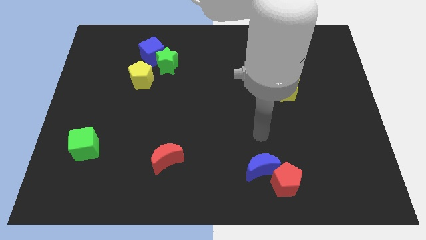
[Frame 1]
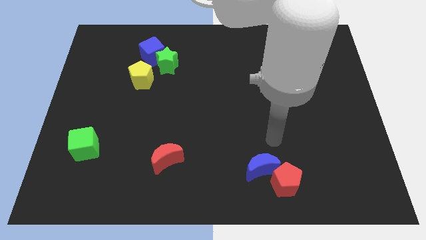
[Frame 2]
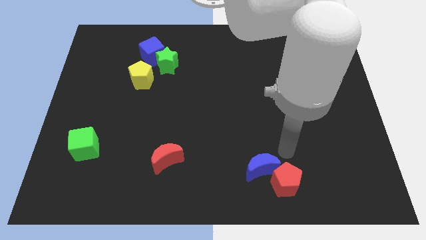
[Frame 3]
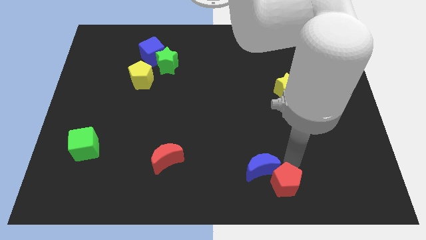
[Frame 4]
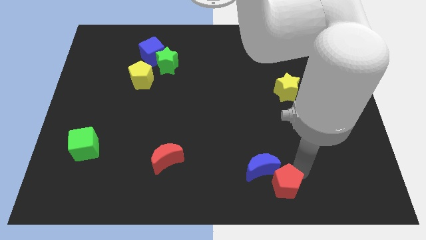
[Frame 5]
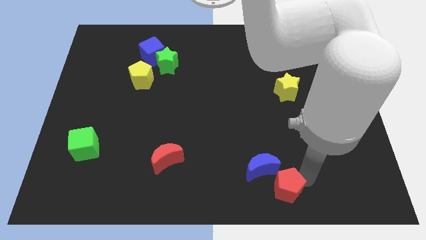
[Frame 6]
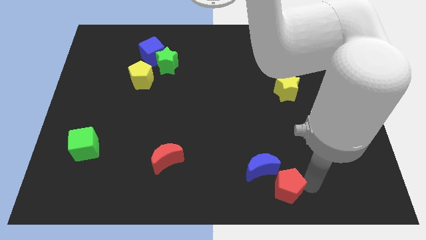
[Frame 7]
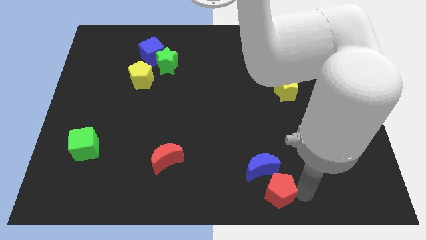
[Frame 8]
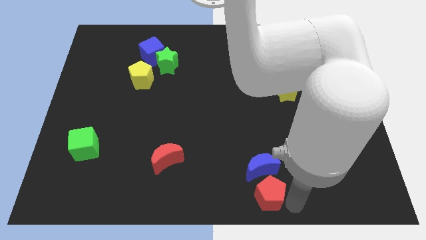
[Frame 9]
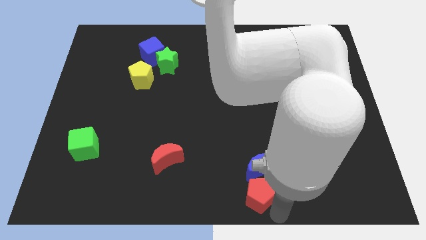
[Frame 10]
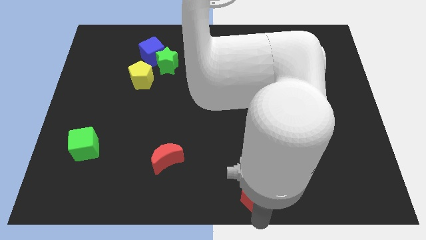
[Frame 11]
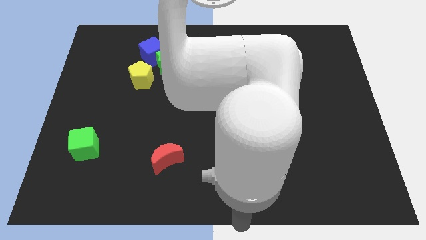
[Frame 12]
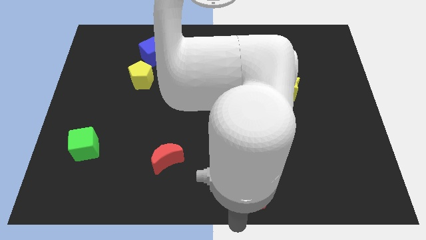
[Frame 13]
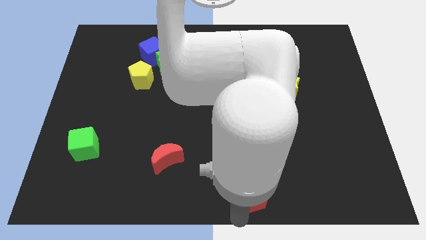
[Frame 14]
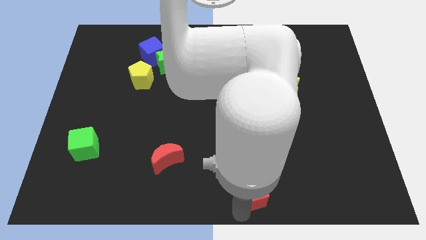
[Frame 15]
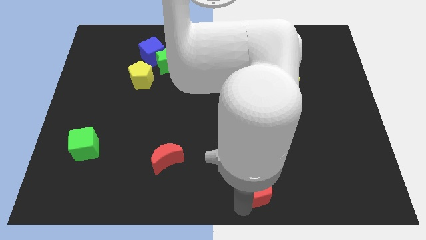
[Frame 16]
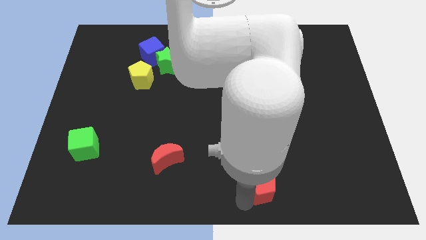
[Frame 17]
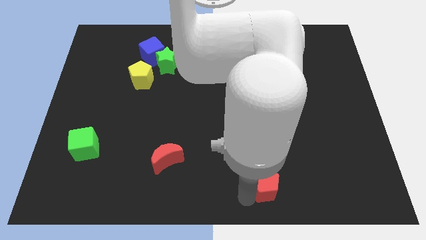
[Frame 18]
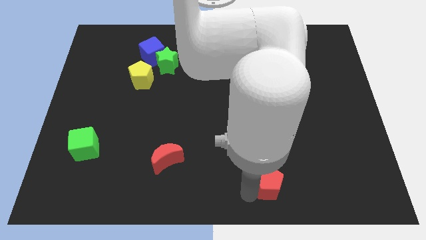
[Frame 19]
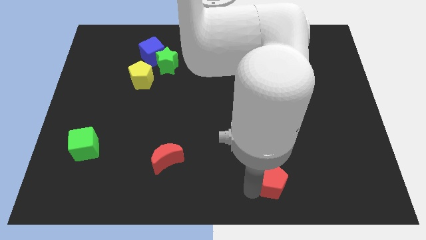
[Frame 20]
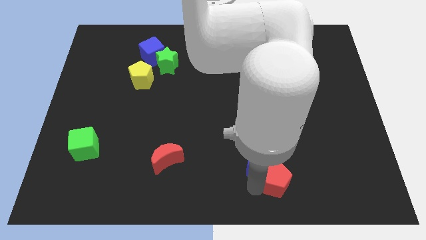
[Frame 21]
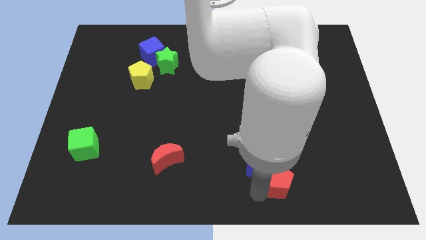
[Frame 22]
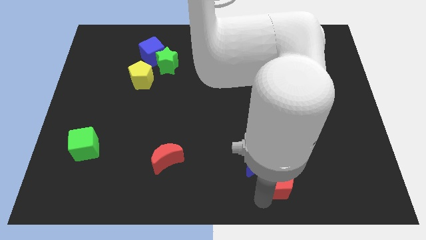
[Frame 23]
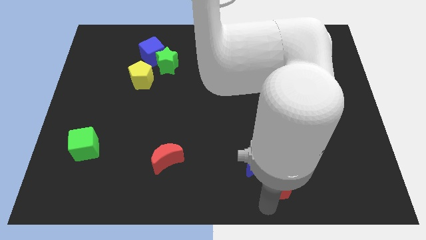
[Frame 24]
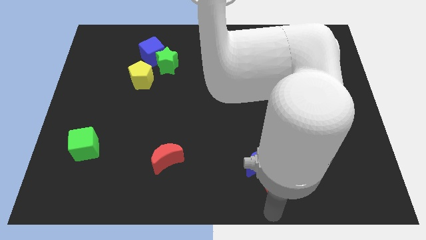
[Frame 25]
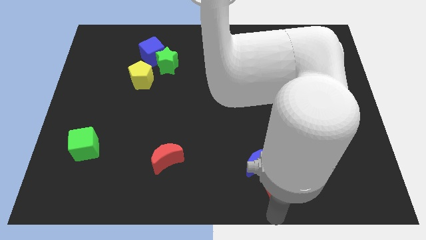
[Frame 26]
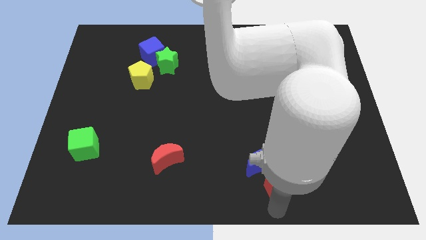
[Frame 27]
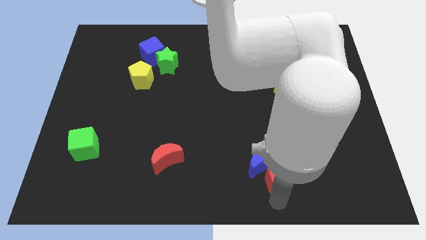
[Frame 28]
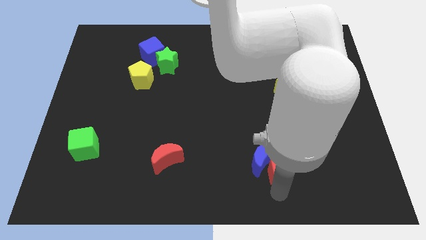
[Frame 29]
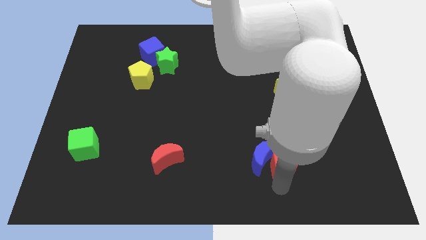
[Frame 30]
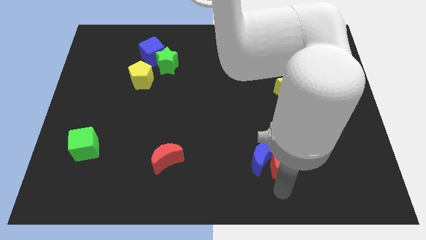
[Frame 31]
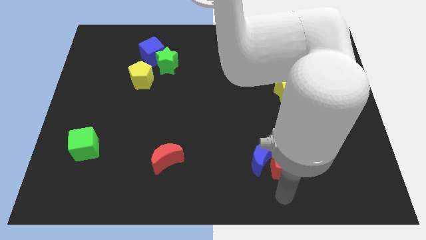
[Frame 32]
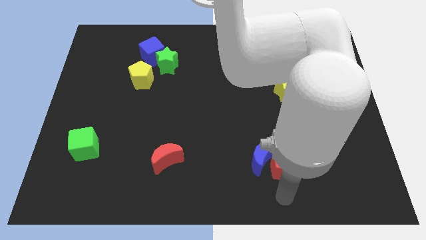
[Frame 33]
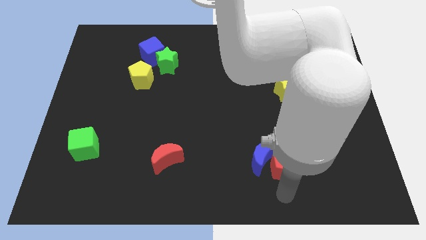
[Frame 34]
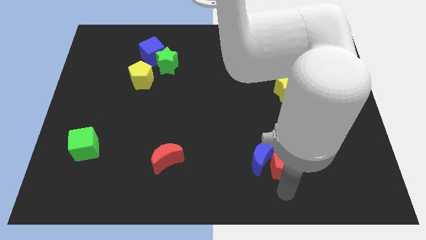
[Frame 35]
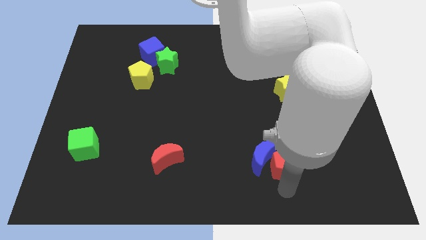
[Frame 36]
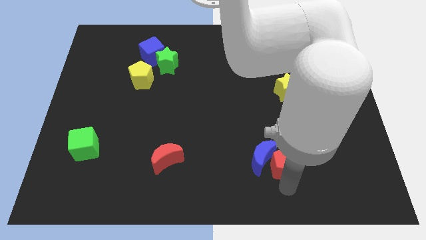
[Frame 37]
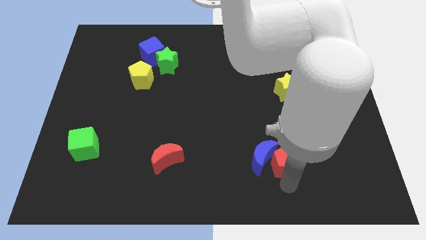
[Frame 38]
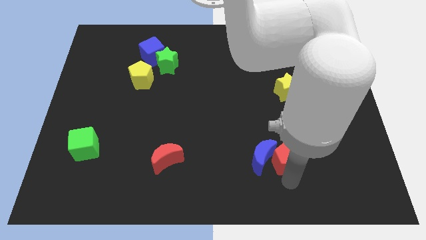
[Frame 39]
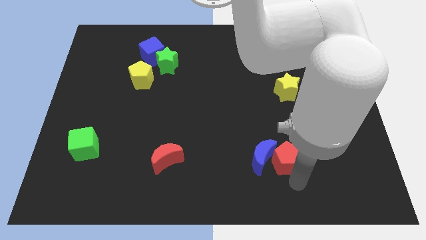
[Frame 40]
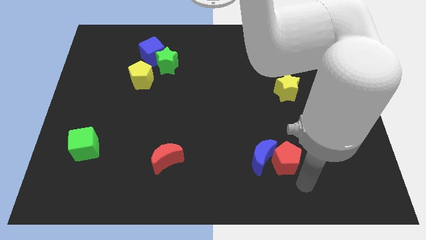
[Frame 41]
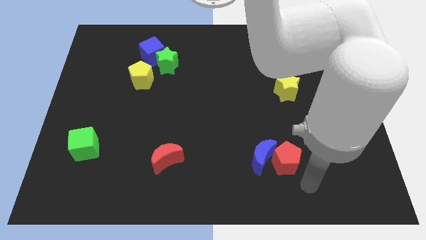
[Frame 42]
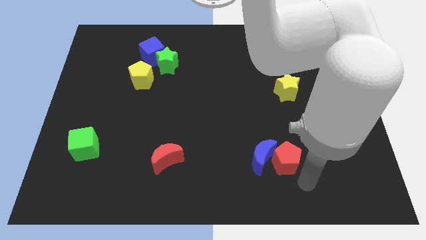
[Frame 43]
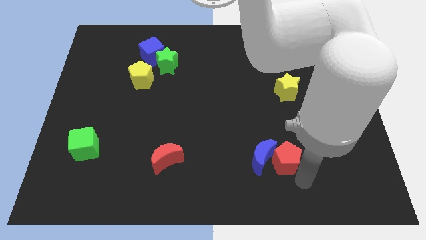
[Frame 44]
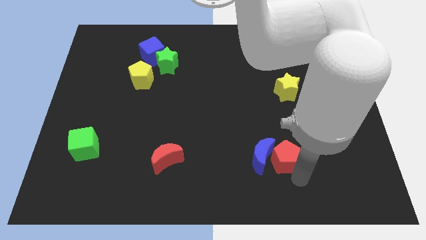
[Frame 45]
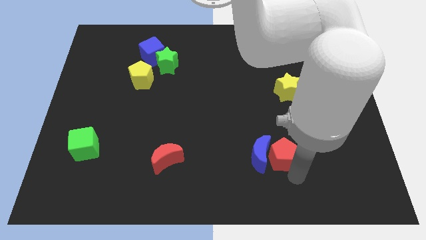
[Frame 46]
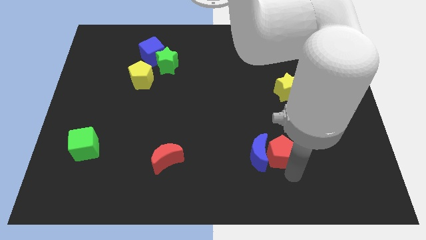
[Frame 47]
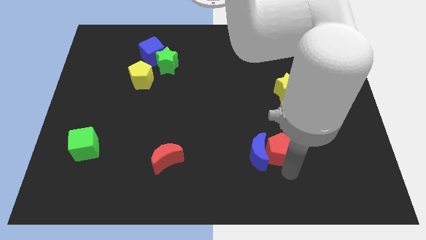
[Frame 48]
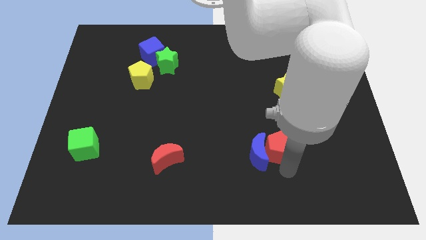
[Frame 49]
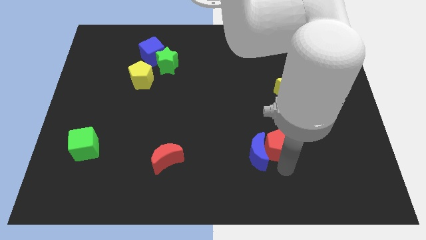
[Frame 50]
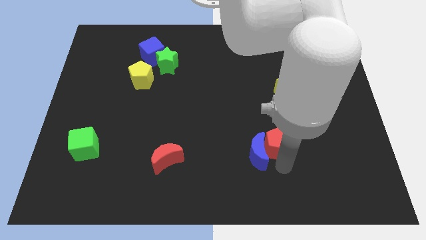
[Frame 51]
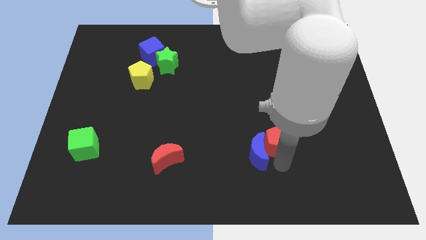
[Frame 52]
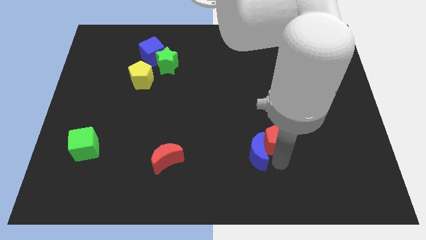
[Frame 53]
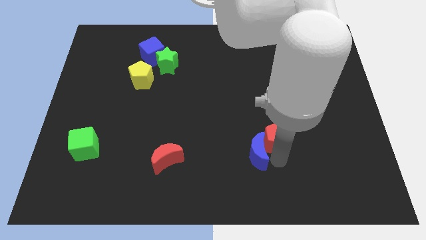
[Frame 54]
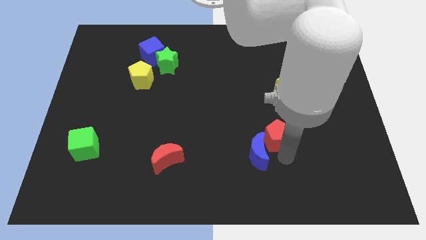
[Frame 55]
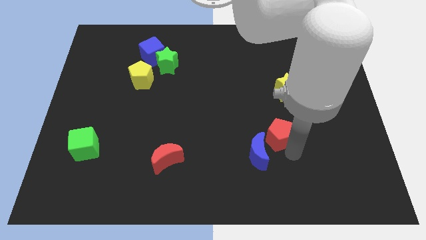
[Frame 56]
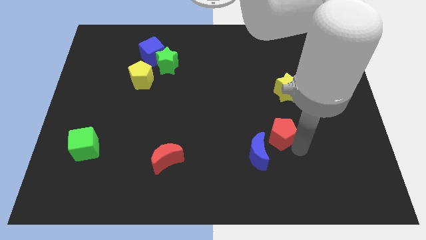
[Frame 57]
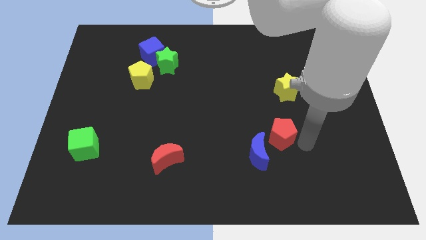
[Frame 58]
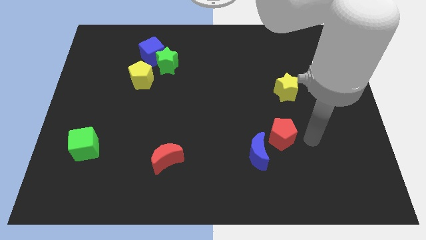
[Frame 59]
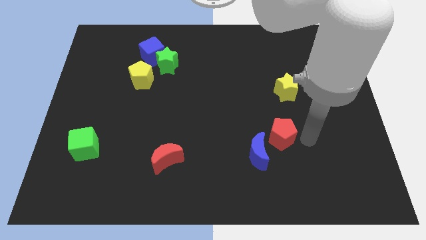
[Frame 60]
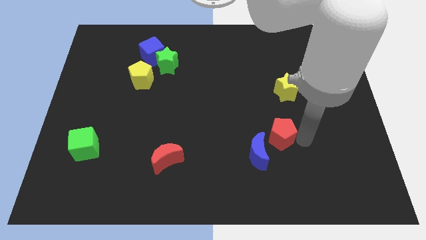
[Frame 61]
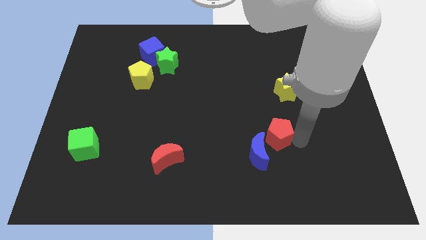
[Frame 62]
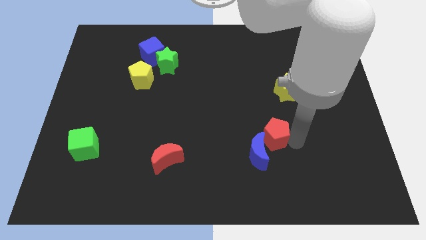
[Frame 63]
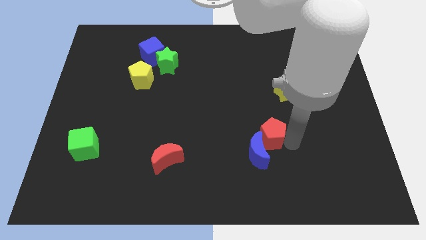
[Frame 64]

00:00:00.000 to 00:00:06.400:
move the red pentagon diagonally upwards and to the left slightly

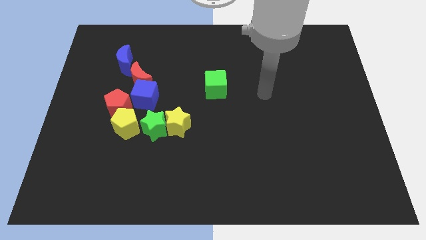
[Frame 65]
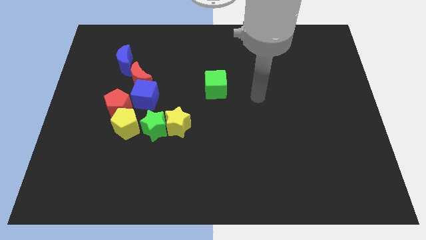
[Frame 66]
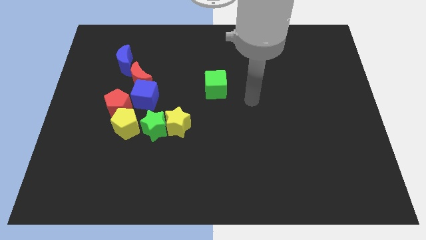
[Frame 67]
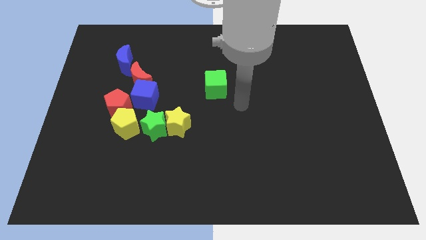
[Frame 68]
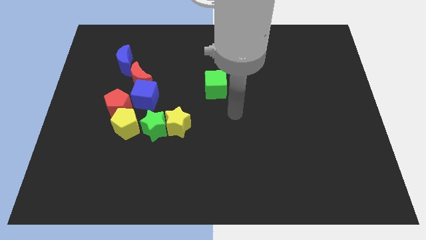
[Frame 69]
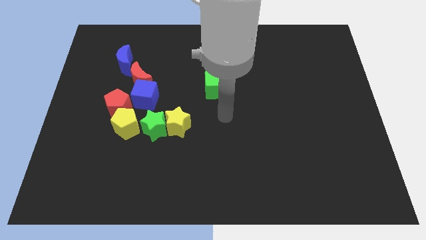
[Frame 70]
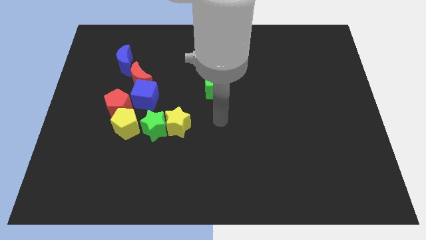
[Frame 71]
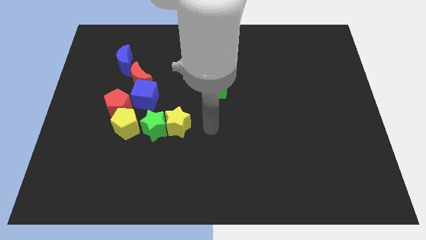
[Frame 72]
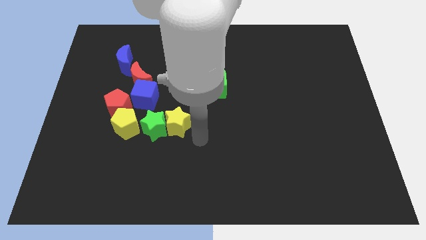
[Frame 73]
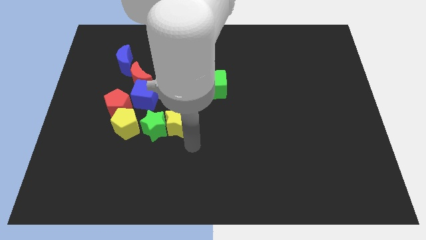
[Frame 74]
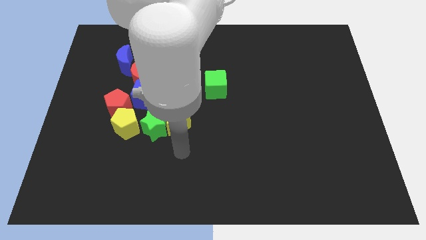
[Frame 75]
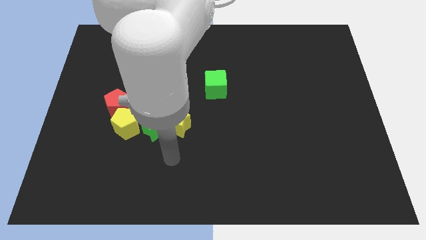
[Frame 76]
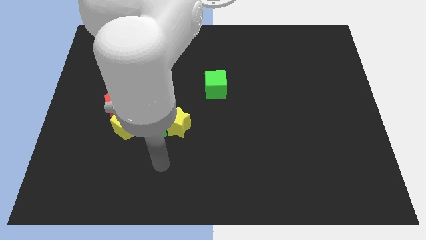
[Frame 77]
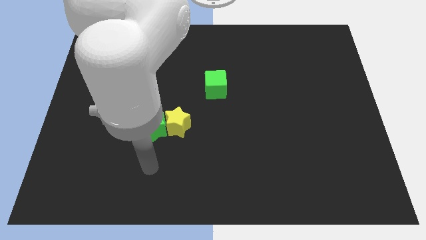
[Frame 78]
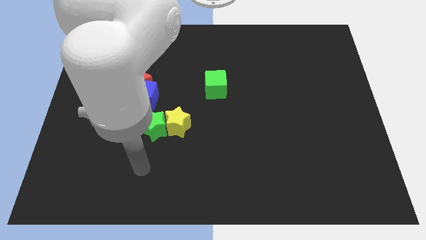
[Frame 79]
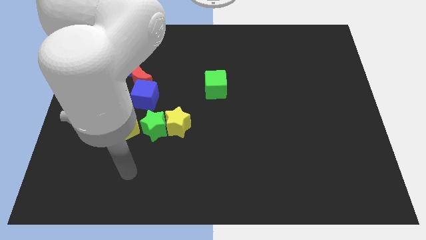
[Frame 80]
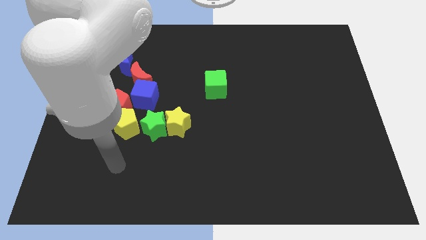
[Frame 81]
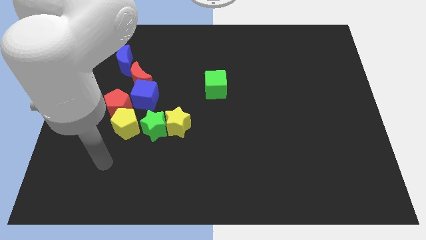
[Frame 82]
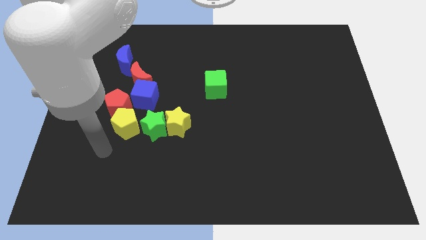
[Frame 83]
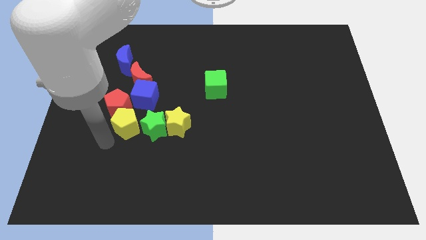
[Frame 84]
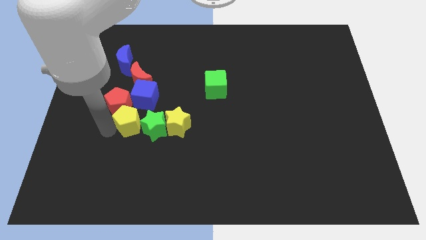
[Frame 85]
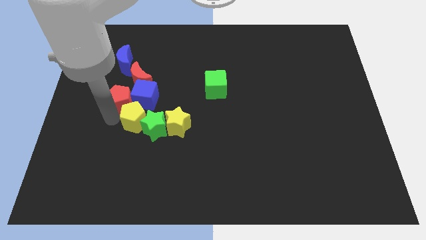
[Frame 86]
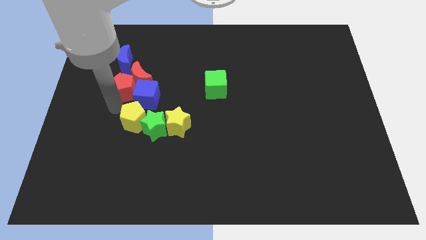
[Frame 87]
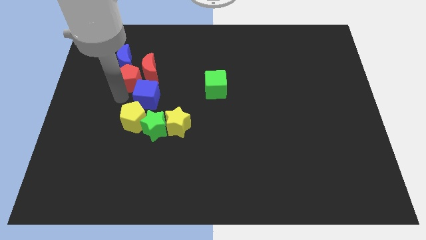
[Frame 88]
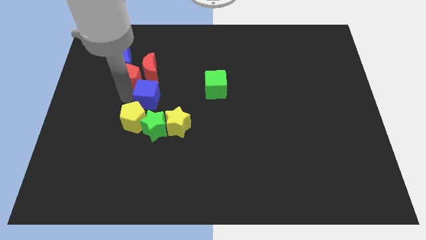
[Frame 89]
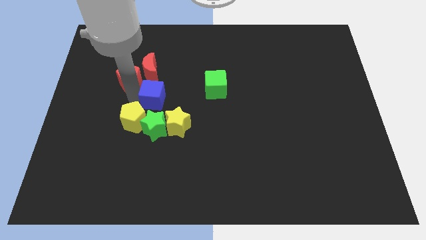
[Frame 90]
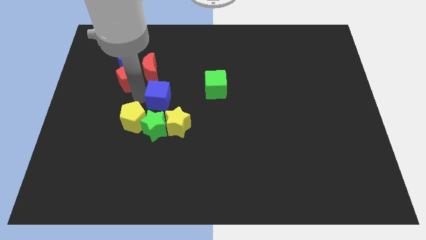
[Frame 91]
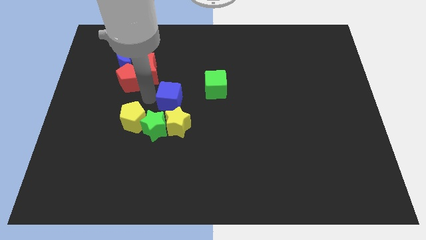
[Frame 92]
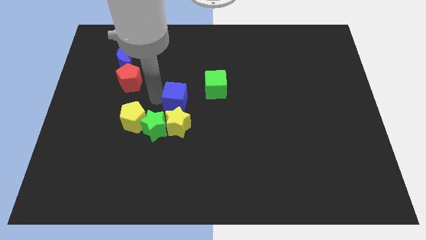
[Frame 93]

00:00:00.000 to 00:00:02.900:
slide the blue cube somewhat to the right
